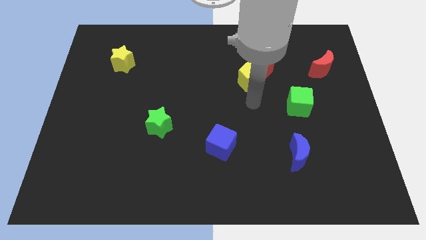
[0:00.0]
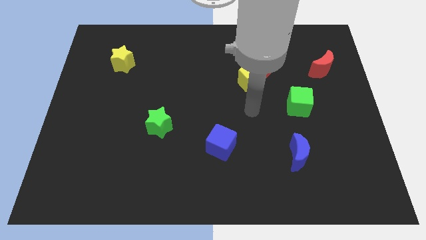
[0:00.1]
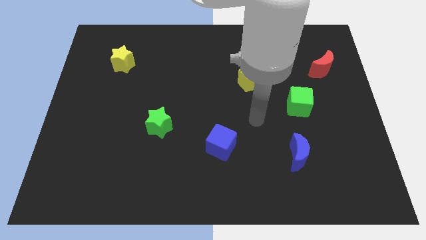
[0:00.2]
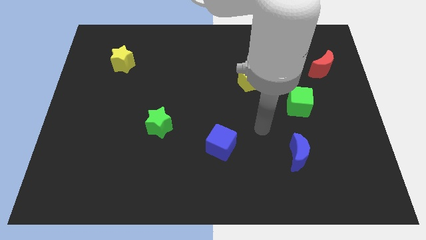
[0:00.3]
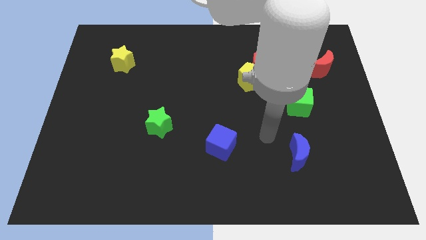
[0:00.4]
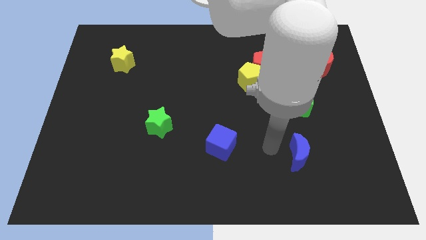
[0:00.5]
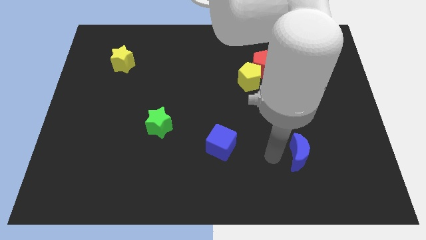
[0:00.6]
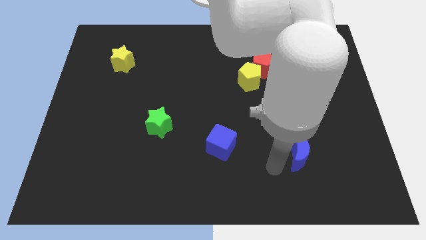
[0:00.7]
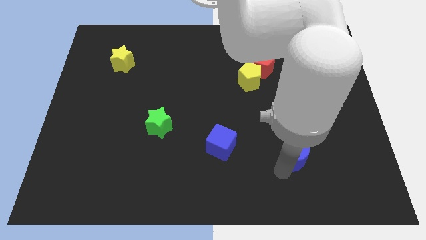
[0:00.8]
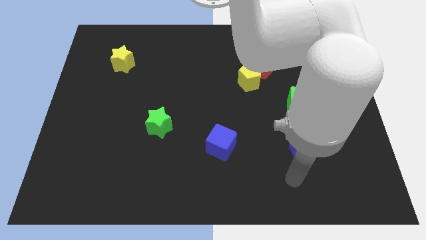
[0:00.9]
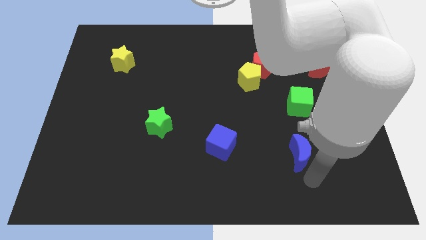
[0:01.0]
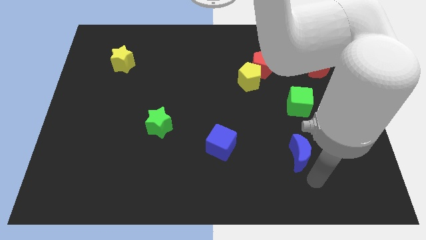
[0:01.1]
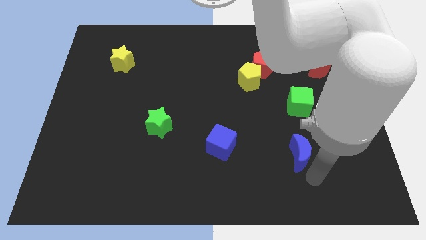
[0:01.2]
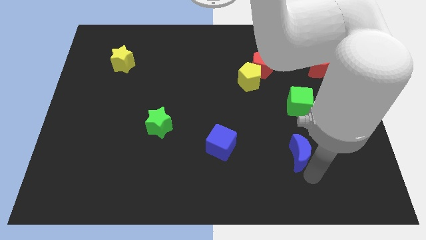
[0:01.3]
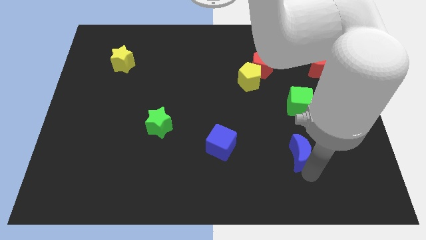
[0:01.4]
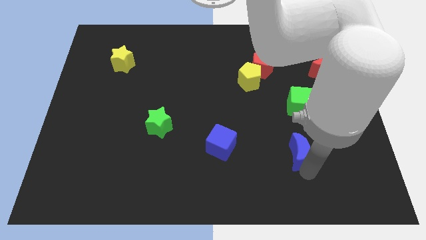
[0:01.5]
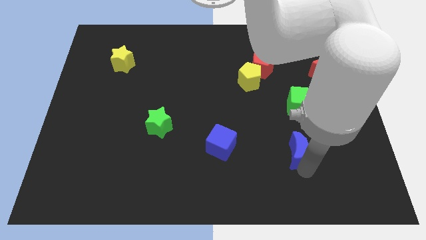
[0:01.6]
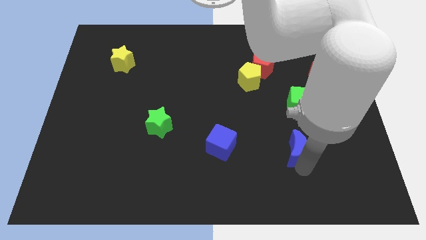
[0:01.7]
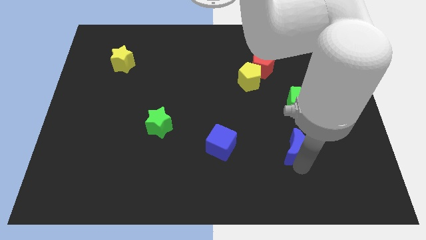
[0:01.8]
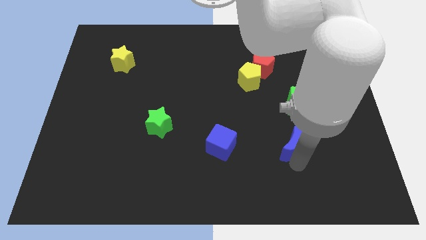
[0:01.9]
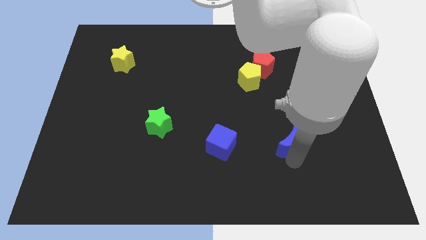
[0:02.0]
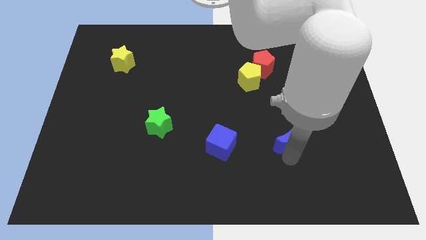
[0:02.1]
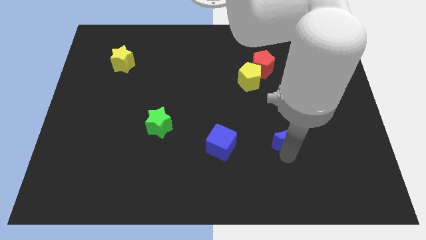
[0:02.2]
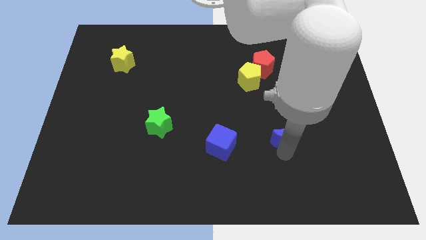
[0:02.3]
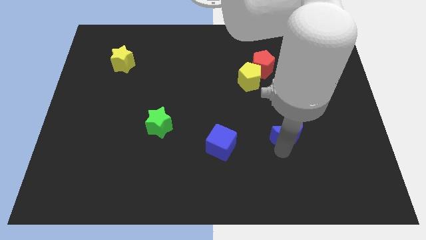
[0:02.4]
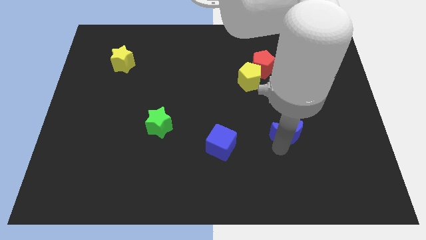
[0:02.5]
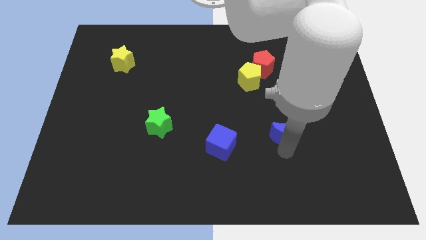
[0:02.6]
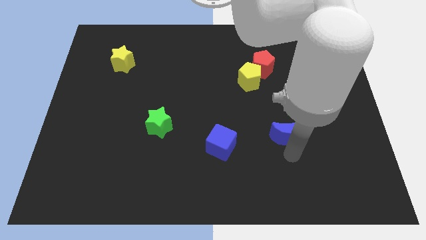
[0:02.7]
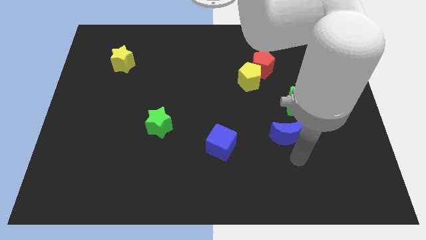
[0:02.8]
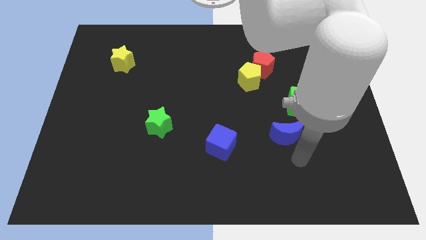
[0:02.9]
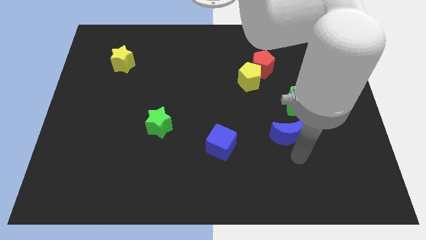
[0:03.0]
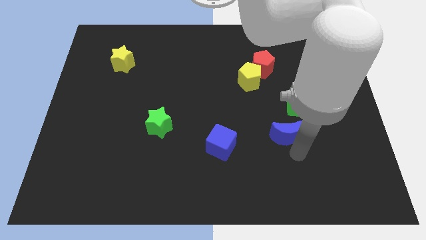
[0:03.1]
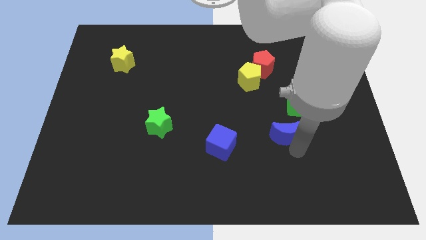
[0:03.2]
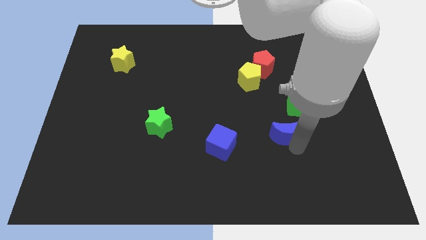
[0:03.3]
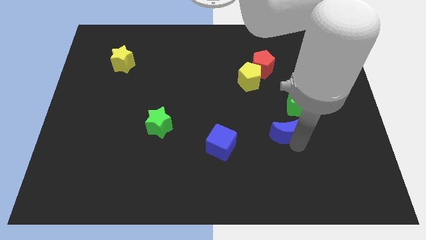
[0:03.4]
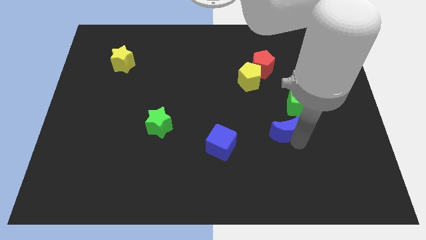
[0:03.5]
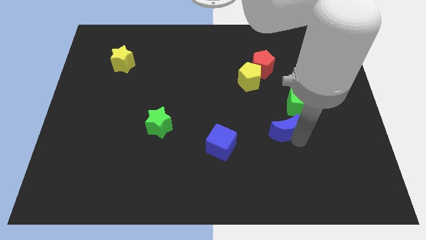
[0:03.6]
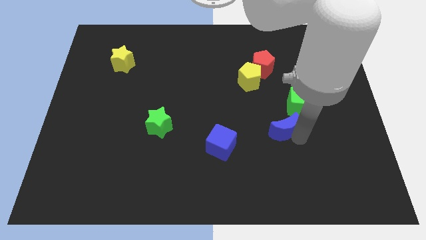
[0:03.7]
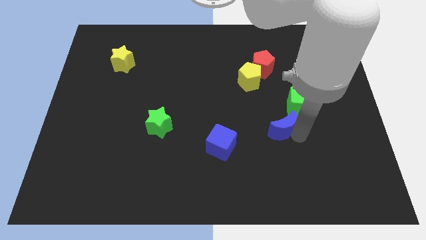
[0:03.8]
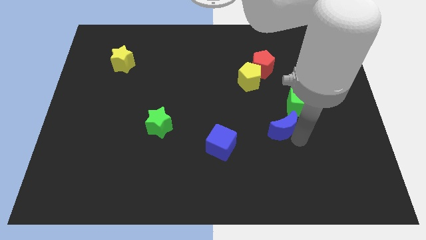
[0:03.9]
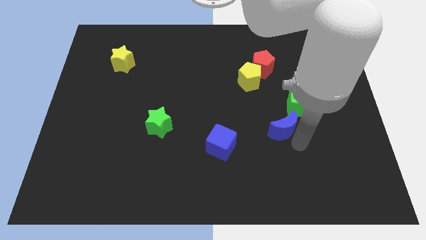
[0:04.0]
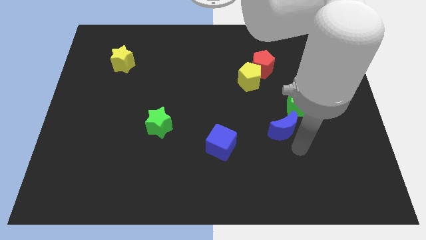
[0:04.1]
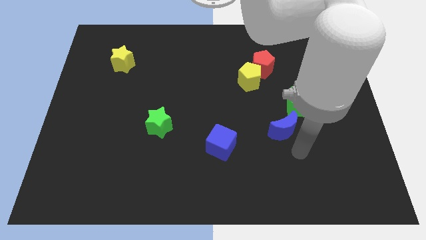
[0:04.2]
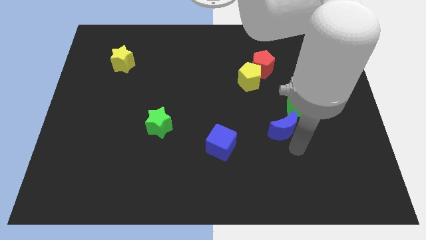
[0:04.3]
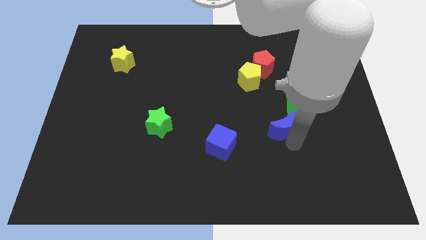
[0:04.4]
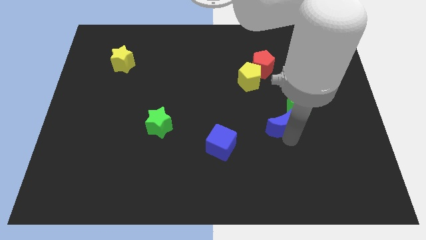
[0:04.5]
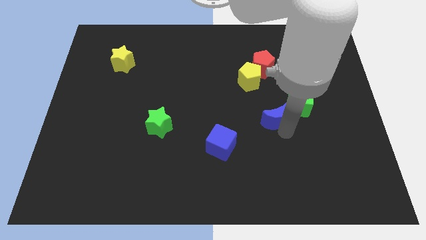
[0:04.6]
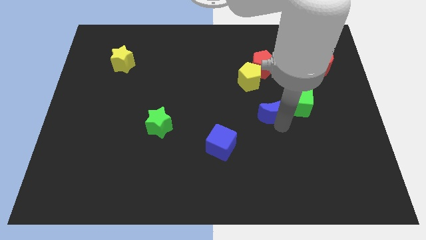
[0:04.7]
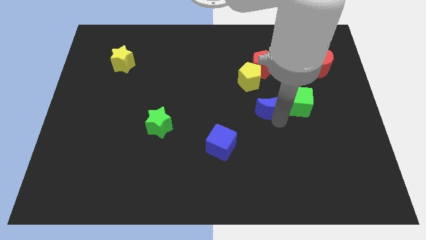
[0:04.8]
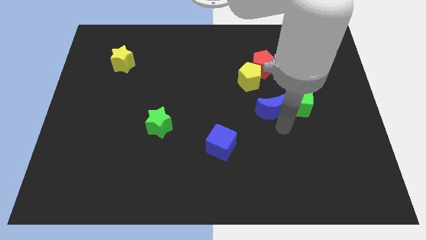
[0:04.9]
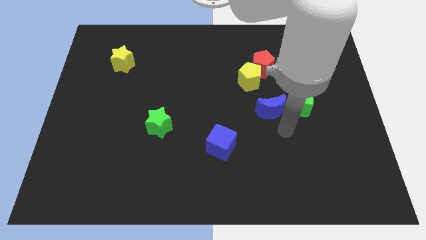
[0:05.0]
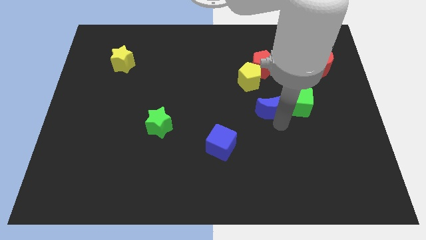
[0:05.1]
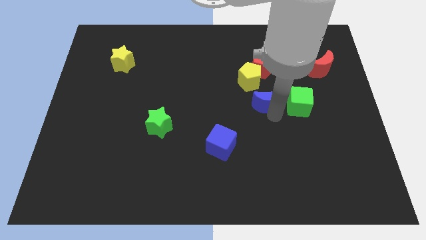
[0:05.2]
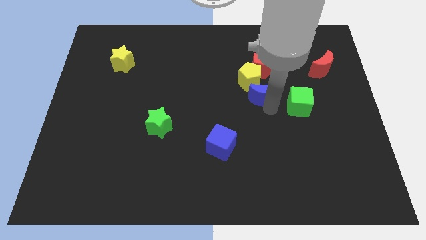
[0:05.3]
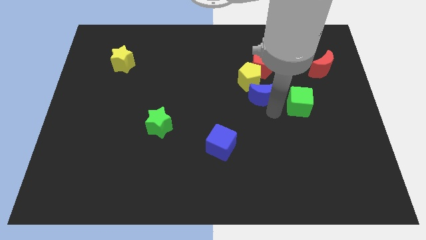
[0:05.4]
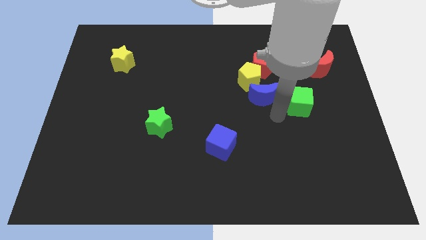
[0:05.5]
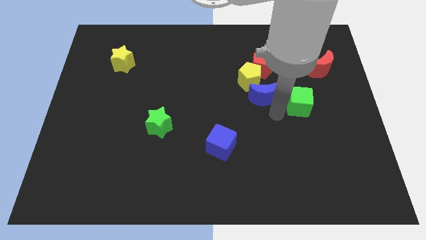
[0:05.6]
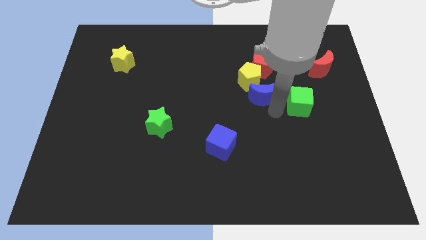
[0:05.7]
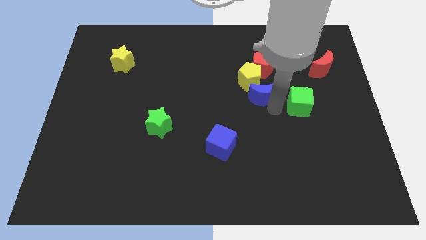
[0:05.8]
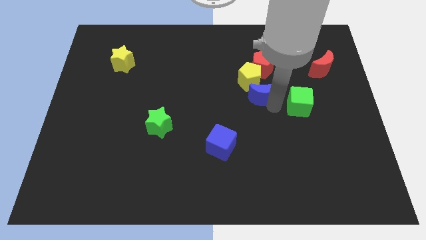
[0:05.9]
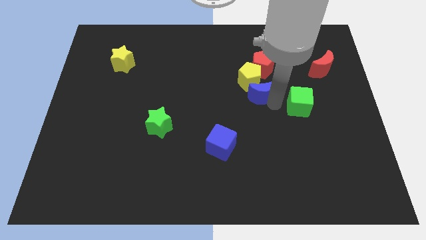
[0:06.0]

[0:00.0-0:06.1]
move the blue moon close to the yellow pentagon

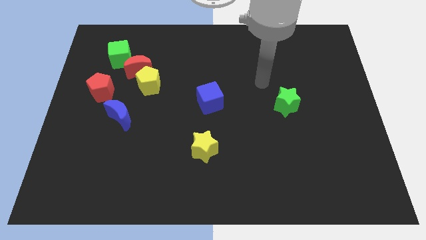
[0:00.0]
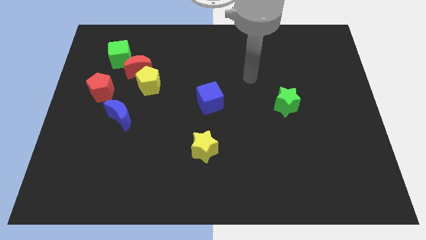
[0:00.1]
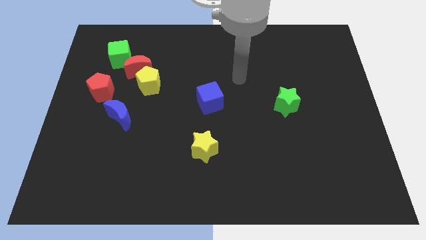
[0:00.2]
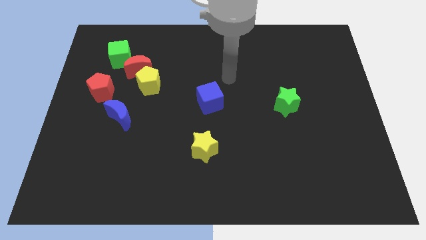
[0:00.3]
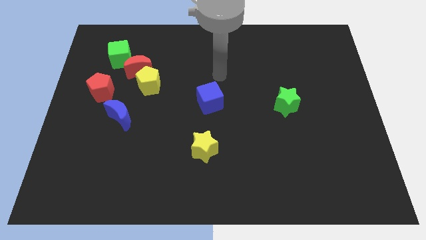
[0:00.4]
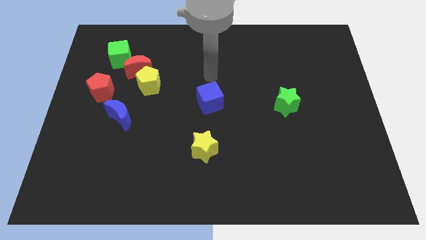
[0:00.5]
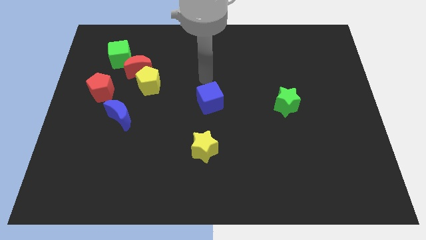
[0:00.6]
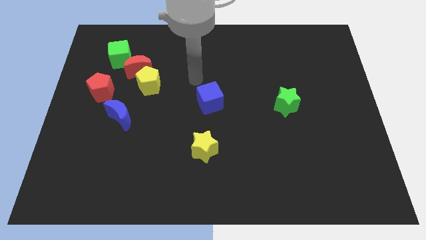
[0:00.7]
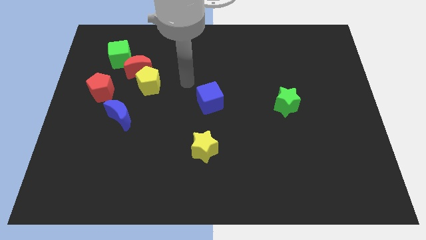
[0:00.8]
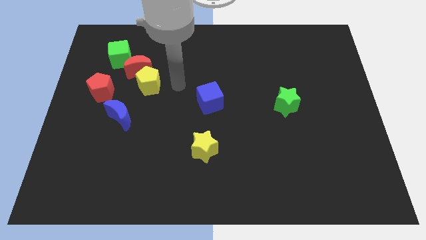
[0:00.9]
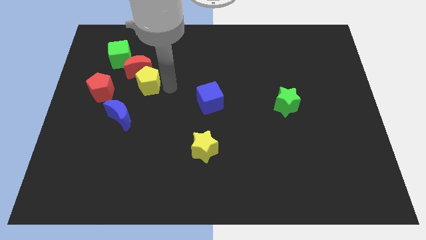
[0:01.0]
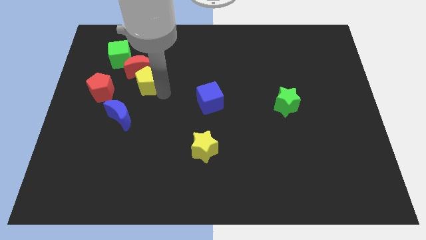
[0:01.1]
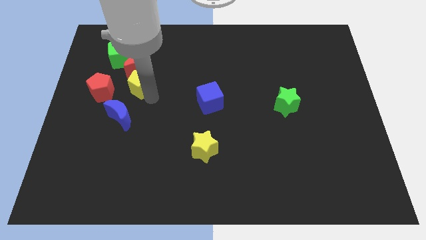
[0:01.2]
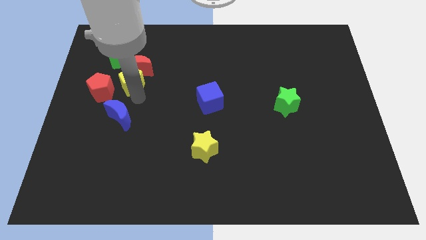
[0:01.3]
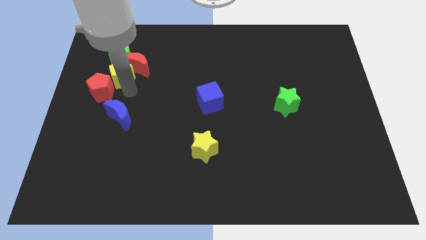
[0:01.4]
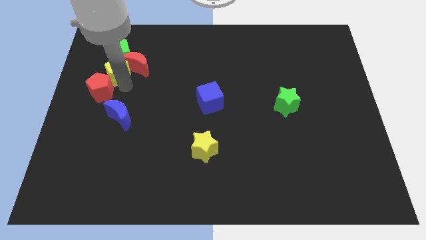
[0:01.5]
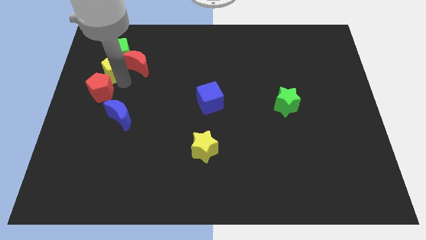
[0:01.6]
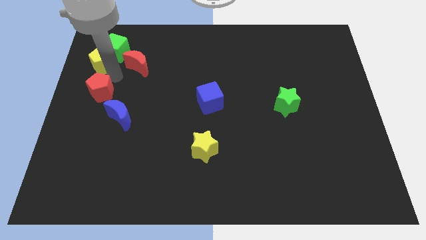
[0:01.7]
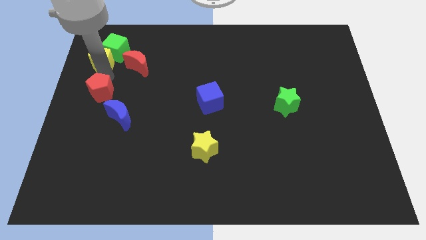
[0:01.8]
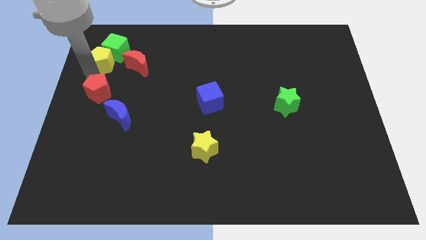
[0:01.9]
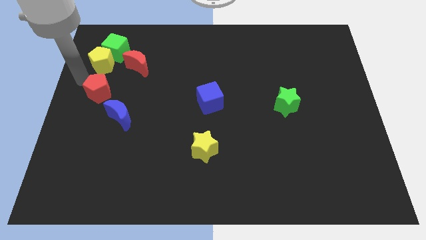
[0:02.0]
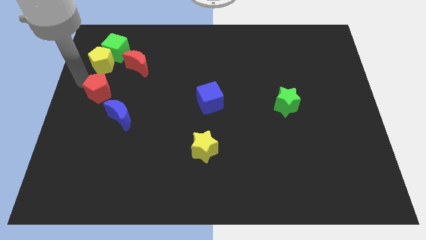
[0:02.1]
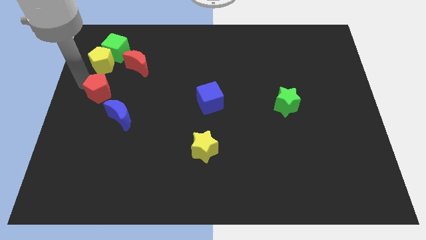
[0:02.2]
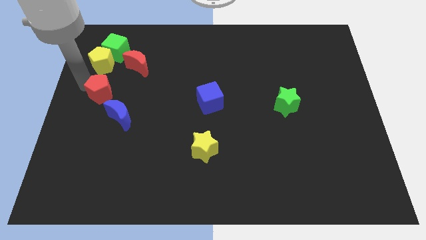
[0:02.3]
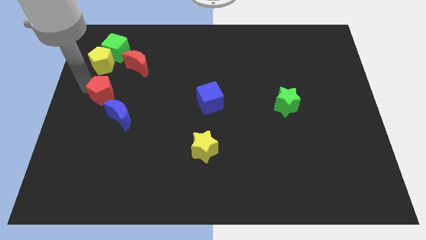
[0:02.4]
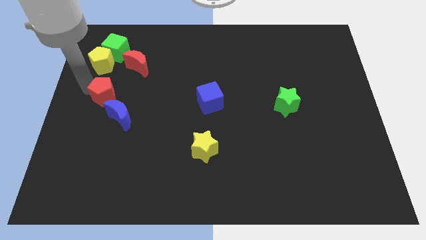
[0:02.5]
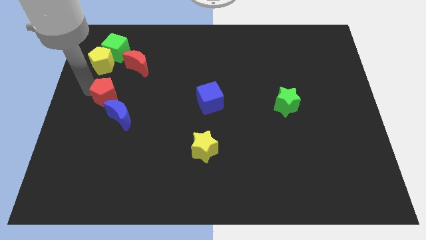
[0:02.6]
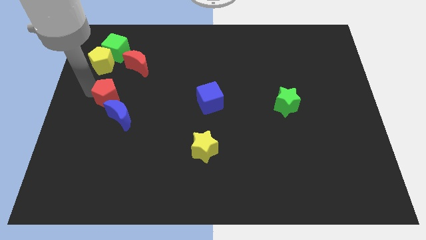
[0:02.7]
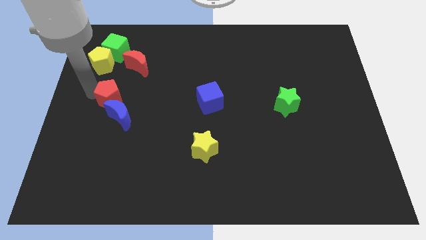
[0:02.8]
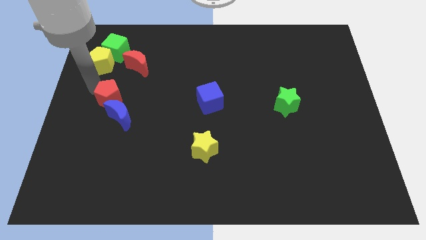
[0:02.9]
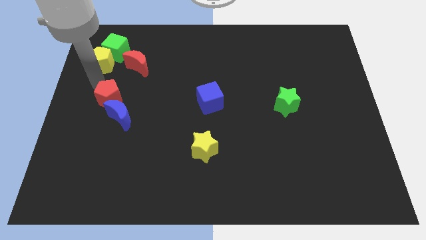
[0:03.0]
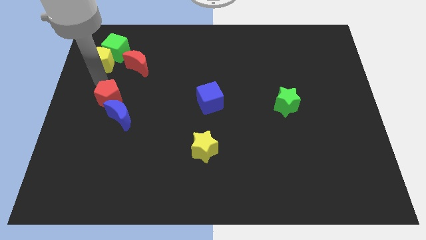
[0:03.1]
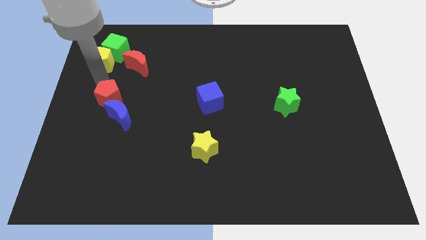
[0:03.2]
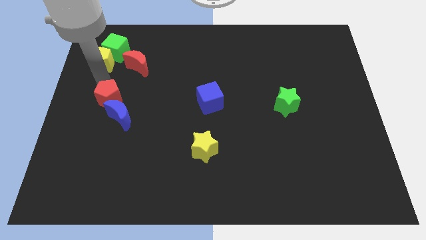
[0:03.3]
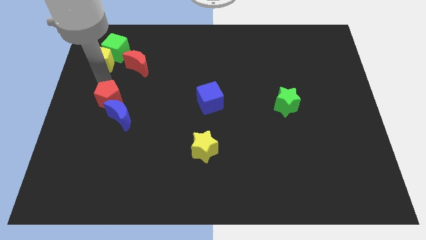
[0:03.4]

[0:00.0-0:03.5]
slide the red pentagon next to the blue moon
